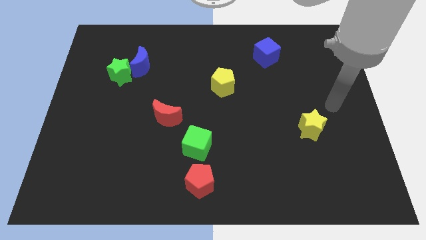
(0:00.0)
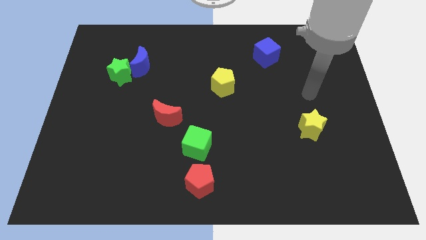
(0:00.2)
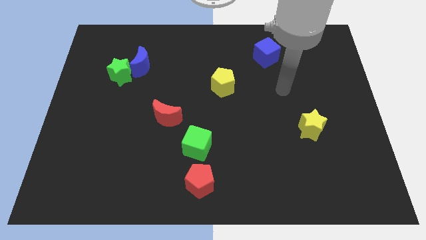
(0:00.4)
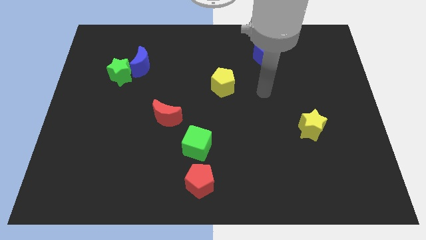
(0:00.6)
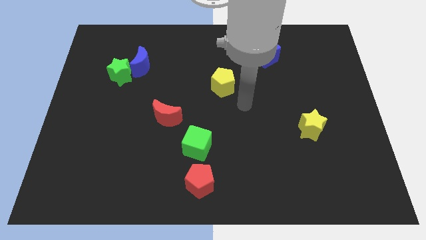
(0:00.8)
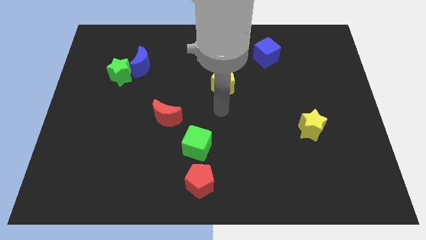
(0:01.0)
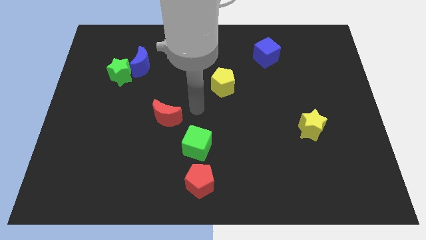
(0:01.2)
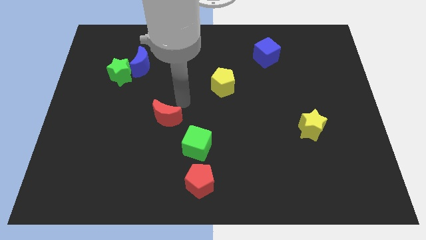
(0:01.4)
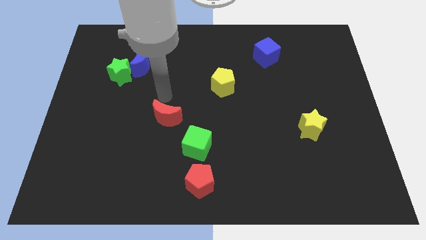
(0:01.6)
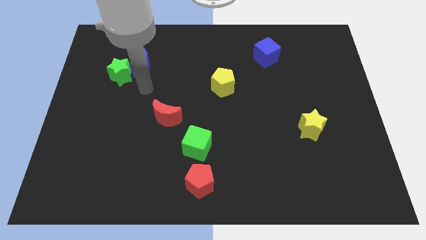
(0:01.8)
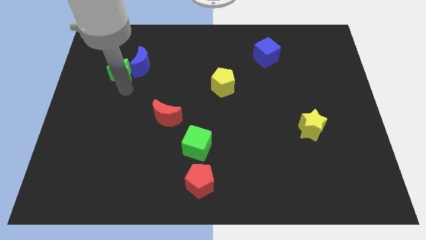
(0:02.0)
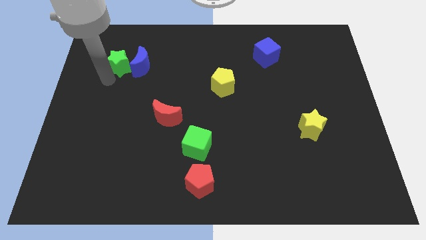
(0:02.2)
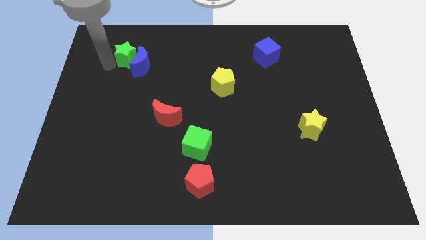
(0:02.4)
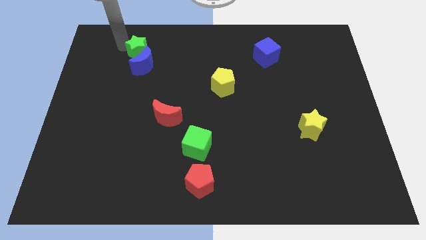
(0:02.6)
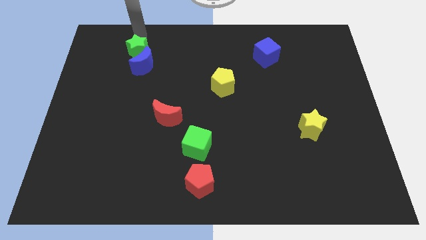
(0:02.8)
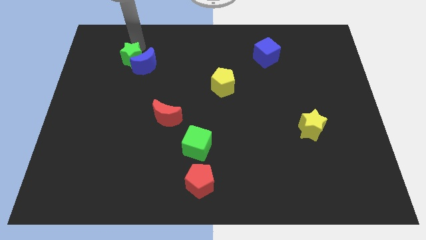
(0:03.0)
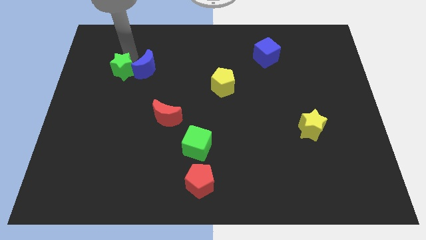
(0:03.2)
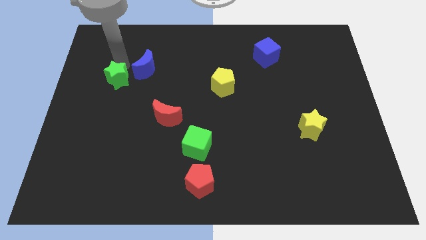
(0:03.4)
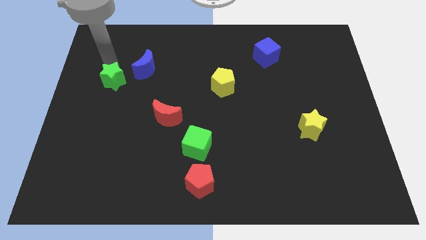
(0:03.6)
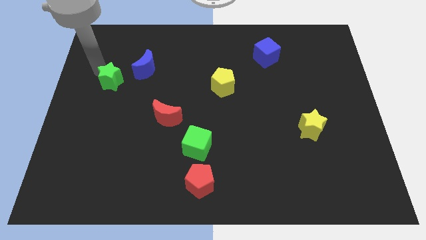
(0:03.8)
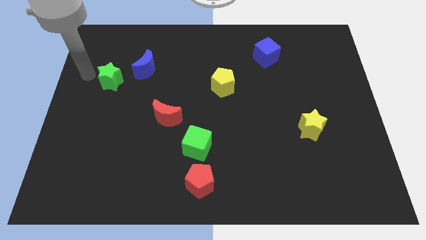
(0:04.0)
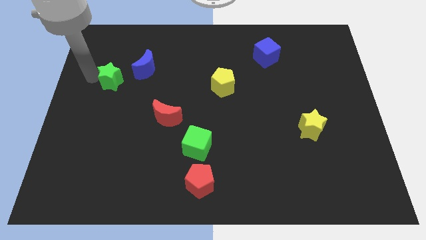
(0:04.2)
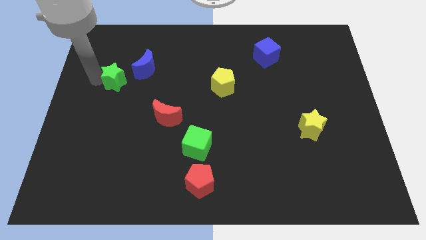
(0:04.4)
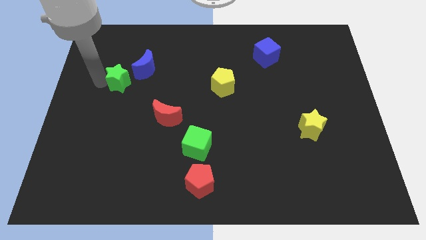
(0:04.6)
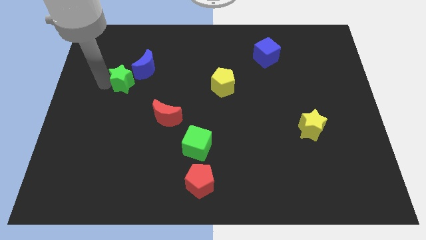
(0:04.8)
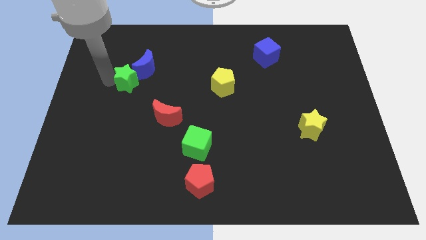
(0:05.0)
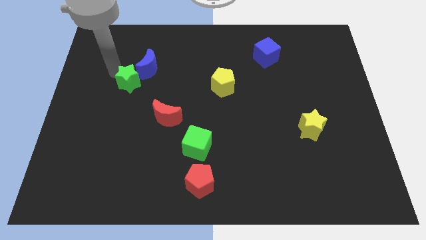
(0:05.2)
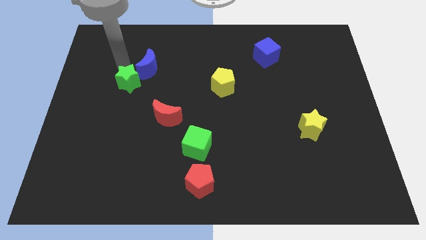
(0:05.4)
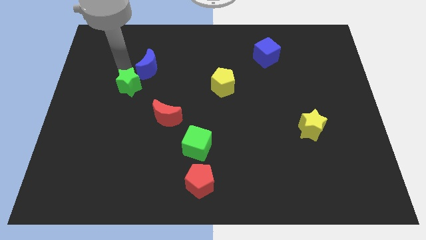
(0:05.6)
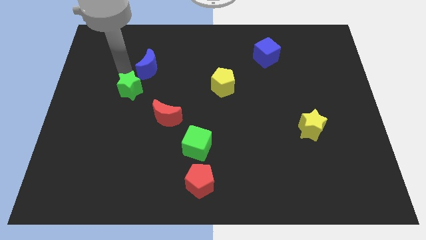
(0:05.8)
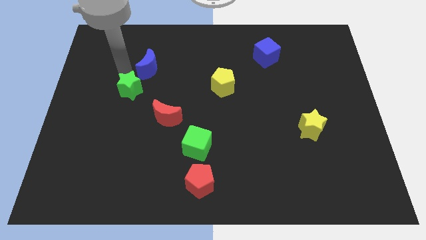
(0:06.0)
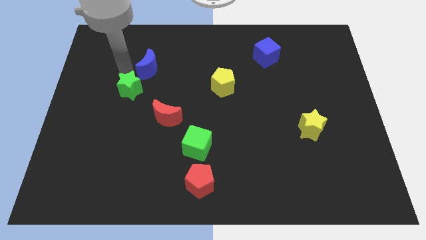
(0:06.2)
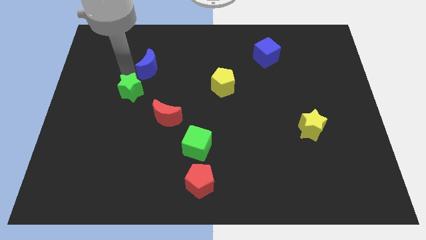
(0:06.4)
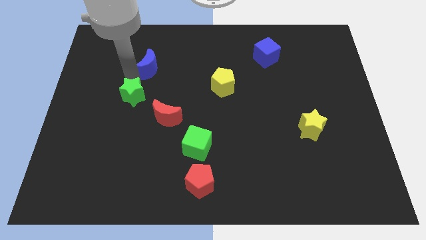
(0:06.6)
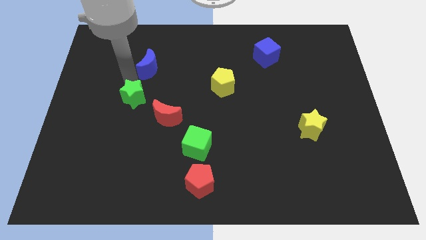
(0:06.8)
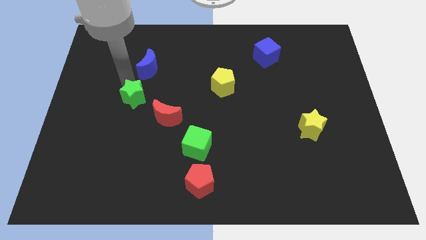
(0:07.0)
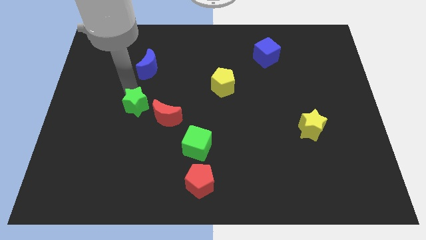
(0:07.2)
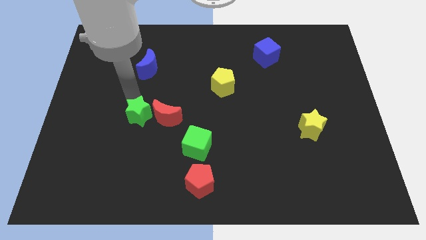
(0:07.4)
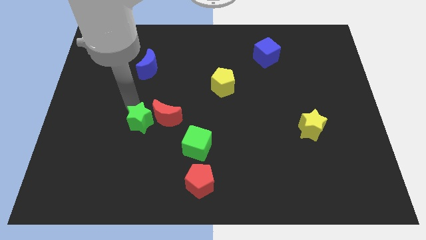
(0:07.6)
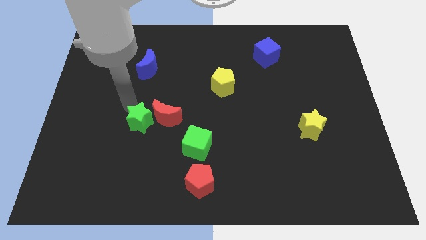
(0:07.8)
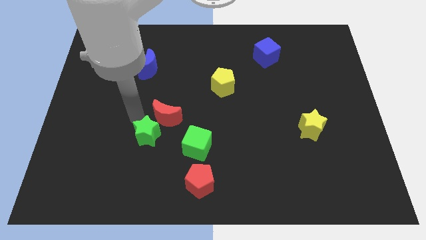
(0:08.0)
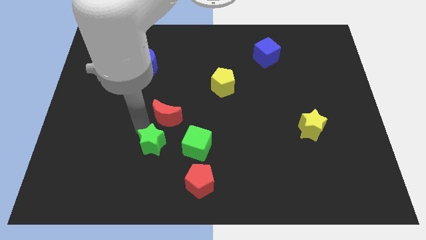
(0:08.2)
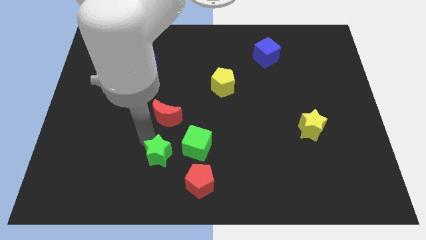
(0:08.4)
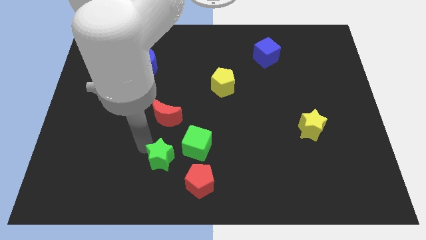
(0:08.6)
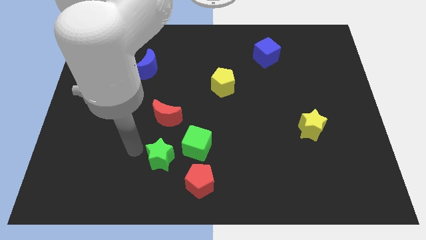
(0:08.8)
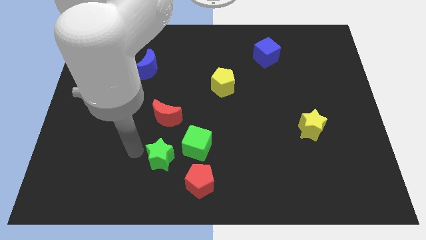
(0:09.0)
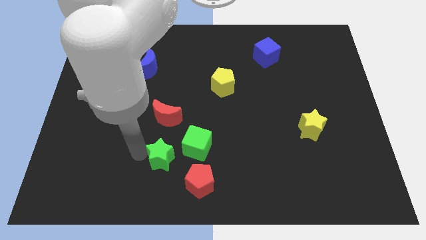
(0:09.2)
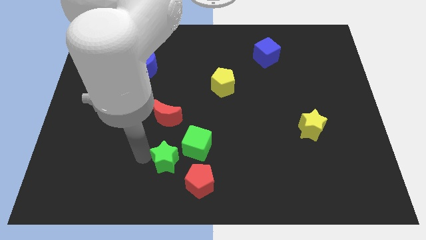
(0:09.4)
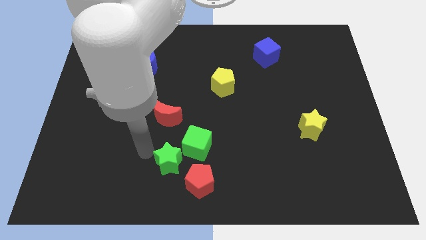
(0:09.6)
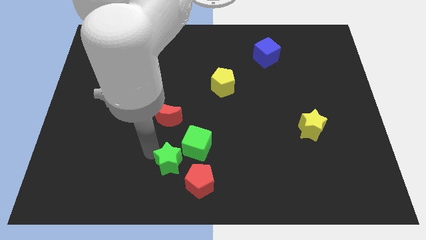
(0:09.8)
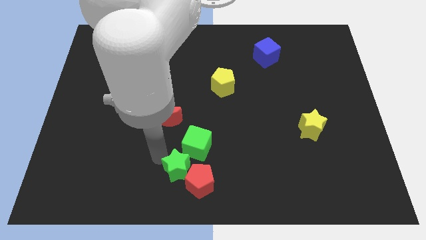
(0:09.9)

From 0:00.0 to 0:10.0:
put the green star towards the red pentagon

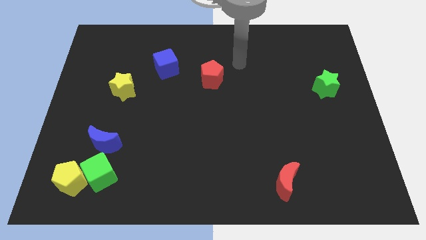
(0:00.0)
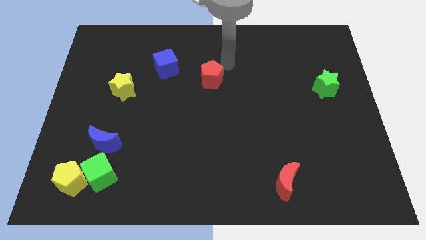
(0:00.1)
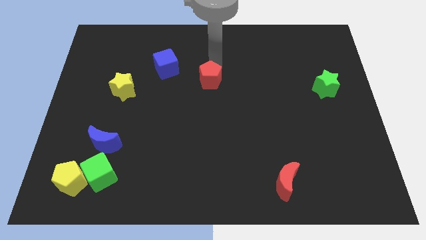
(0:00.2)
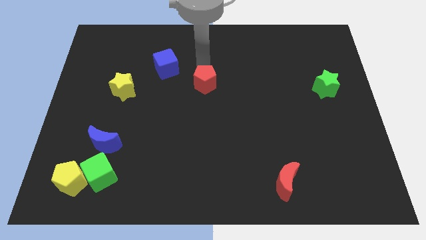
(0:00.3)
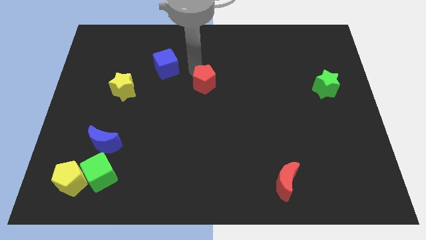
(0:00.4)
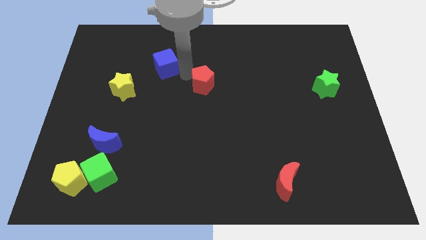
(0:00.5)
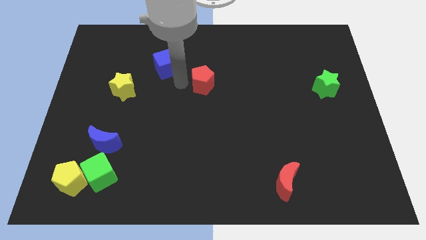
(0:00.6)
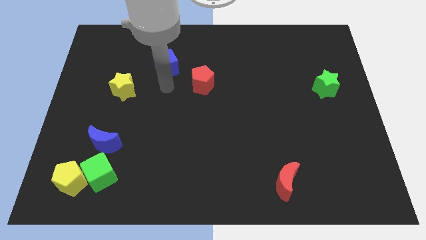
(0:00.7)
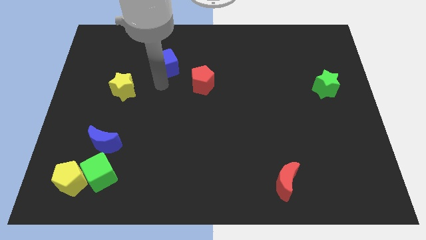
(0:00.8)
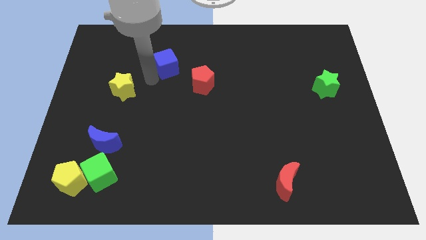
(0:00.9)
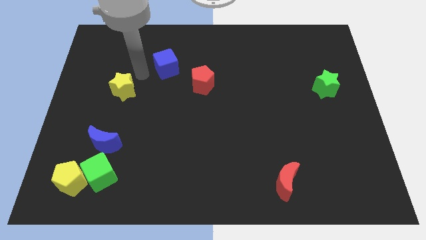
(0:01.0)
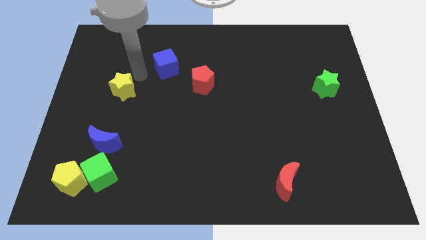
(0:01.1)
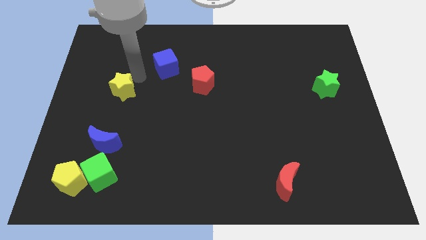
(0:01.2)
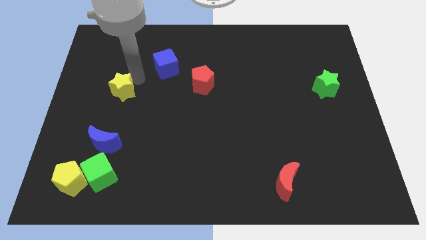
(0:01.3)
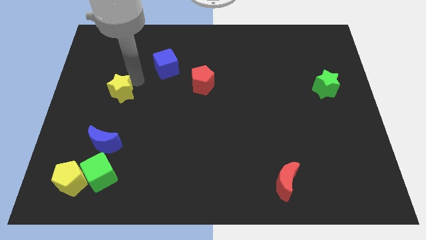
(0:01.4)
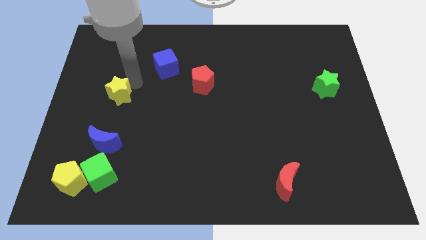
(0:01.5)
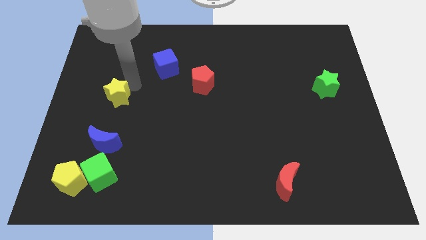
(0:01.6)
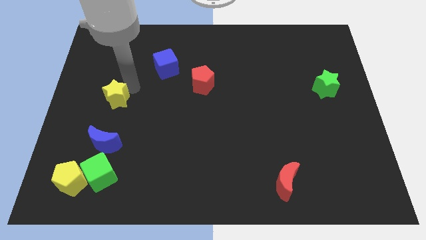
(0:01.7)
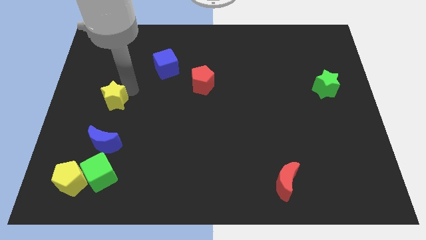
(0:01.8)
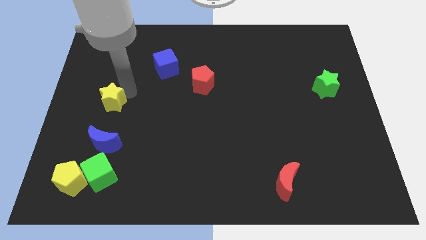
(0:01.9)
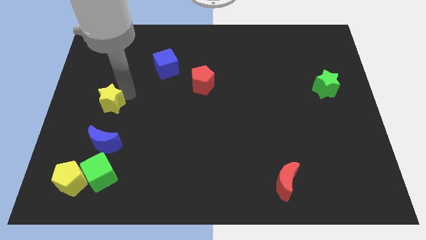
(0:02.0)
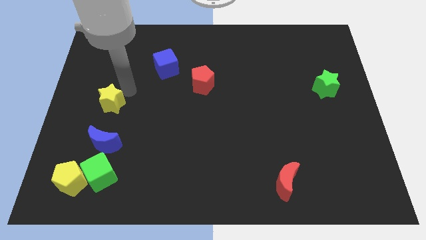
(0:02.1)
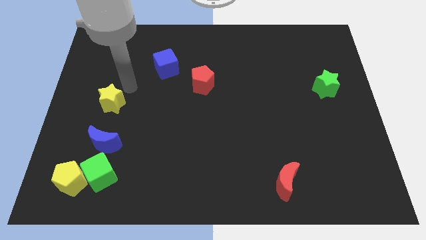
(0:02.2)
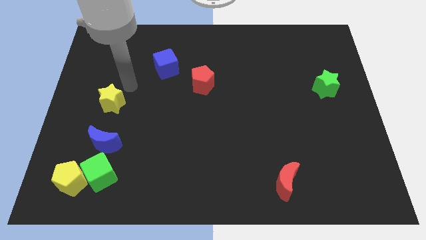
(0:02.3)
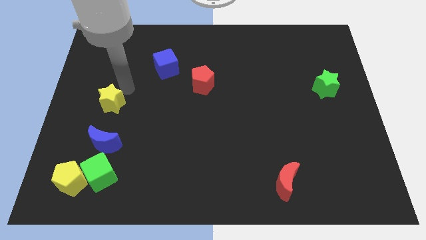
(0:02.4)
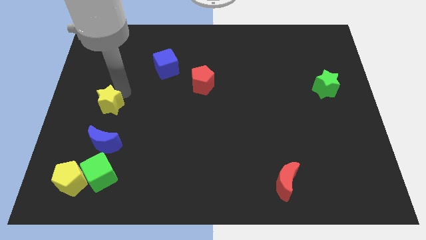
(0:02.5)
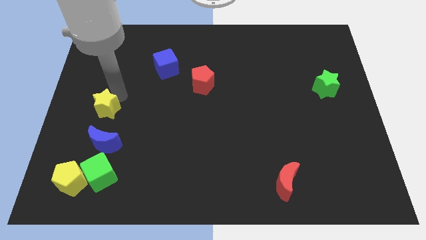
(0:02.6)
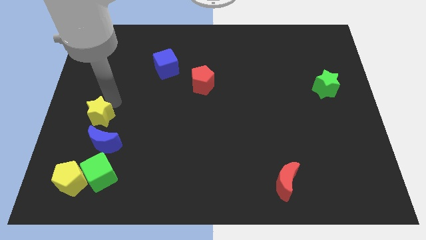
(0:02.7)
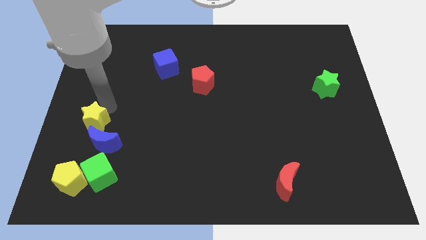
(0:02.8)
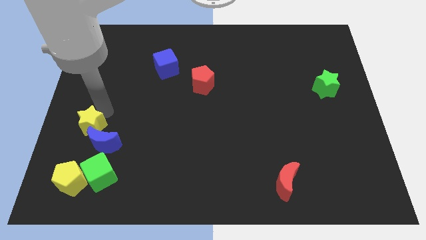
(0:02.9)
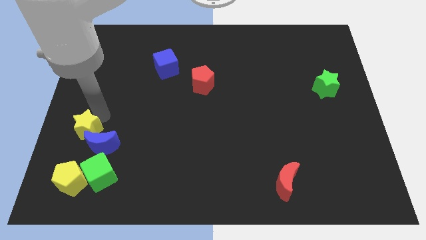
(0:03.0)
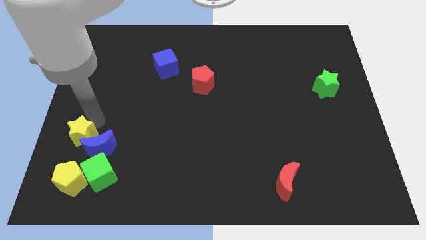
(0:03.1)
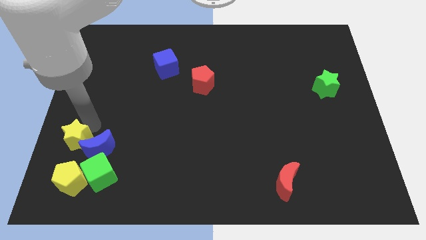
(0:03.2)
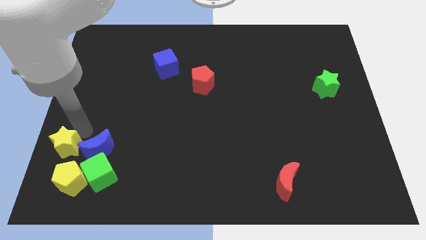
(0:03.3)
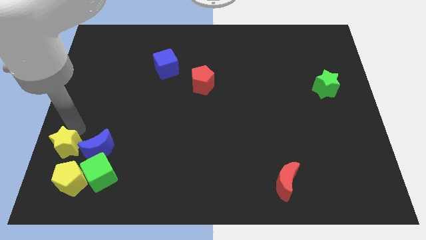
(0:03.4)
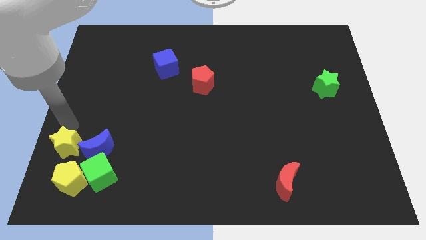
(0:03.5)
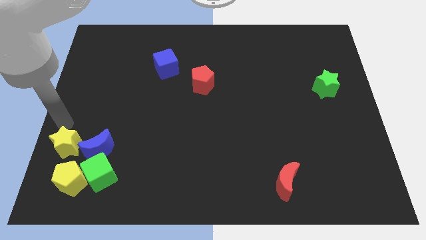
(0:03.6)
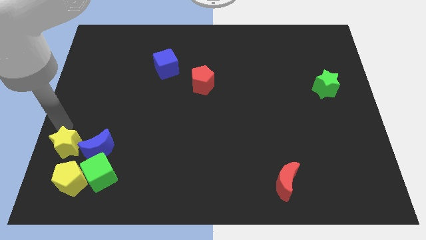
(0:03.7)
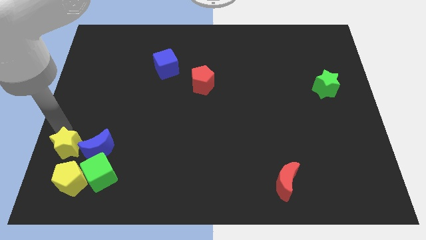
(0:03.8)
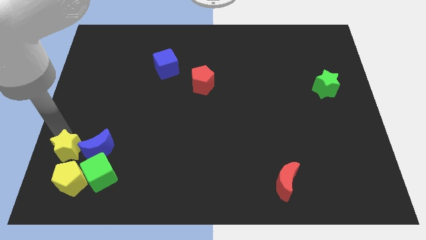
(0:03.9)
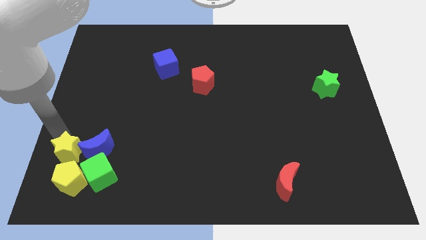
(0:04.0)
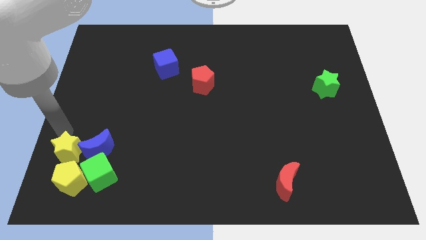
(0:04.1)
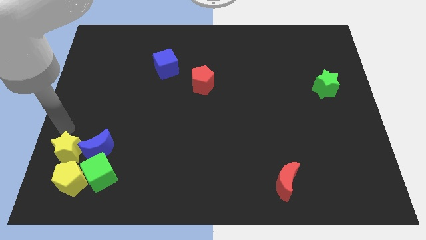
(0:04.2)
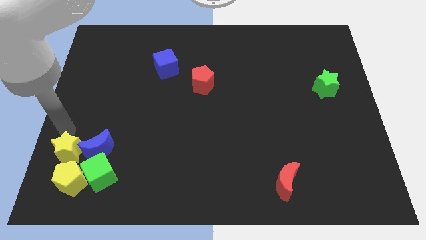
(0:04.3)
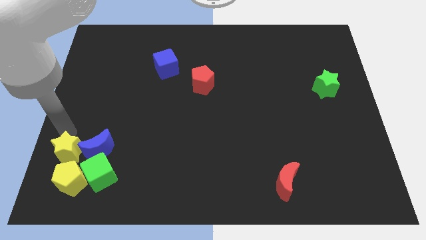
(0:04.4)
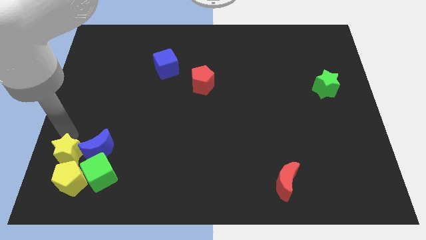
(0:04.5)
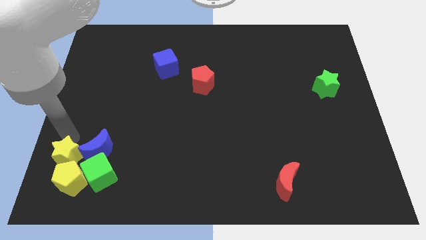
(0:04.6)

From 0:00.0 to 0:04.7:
slide the yellow star close to the yellow pentagon
